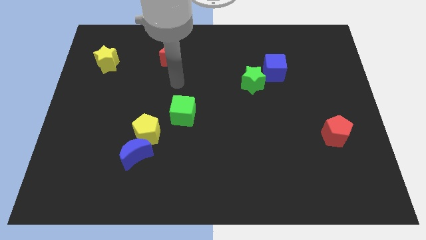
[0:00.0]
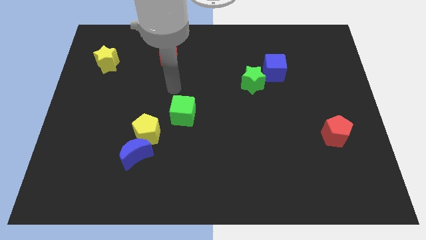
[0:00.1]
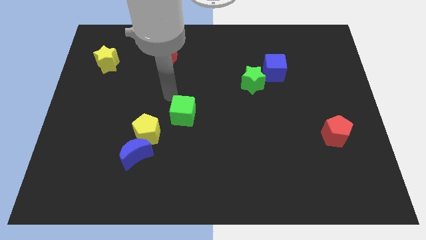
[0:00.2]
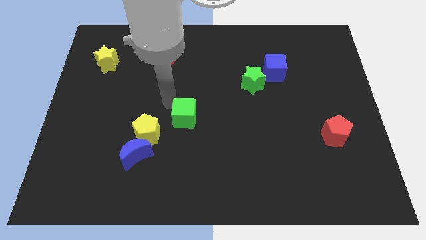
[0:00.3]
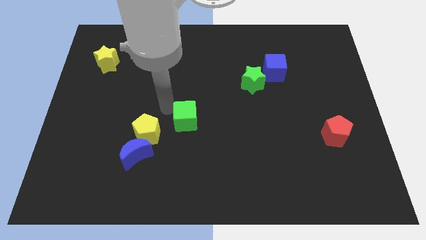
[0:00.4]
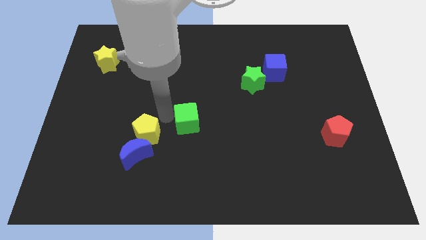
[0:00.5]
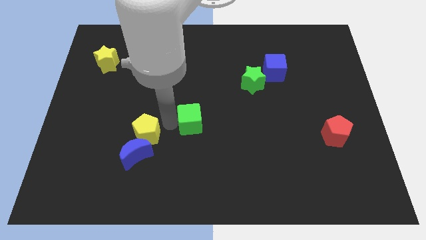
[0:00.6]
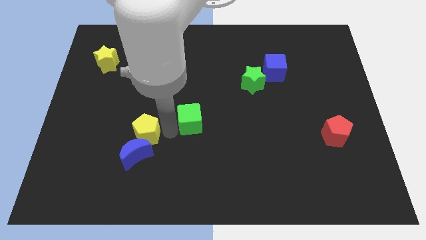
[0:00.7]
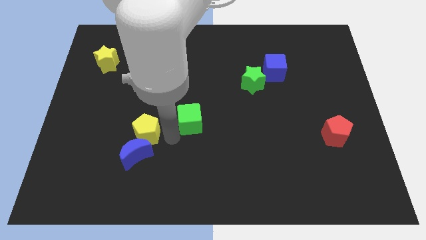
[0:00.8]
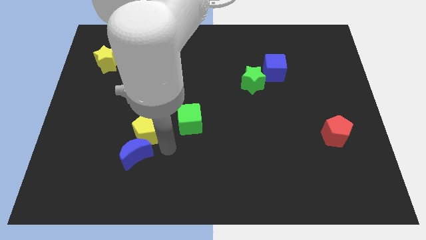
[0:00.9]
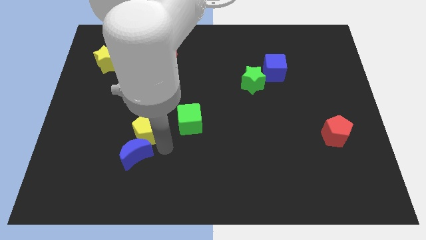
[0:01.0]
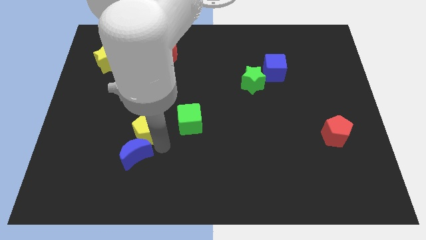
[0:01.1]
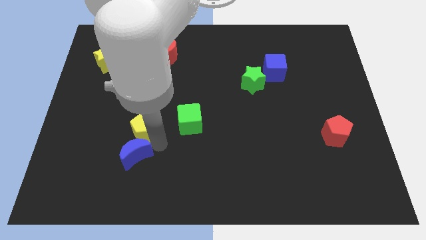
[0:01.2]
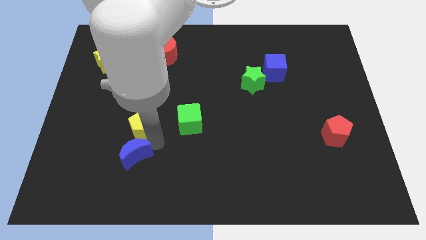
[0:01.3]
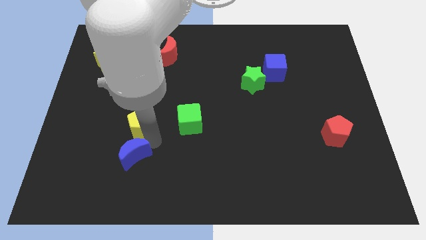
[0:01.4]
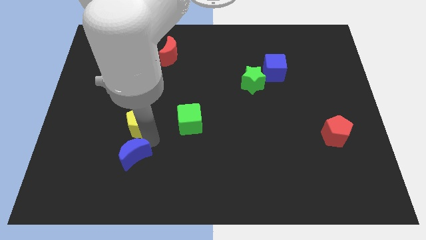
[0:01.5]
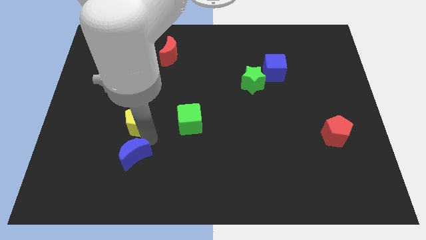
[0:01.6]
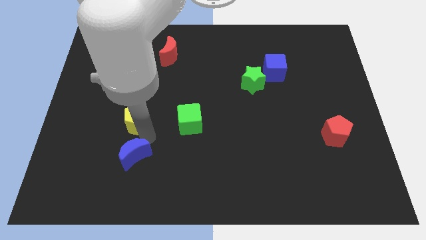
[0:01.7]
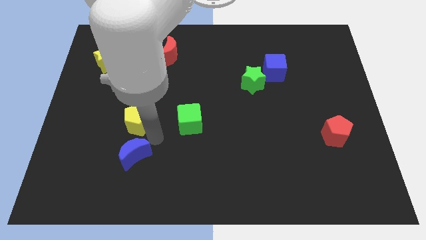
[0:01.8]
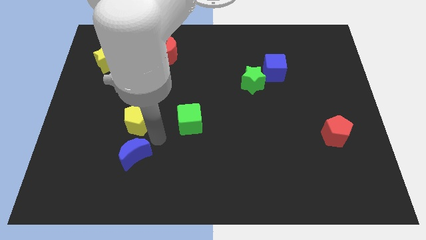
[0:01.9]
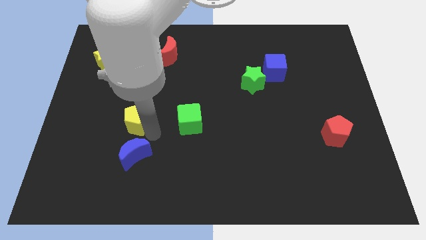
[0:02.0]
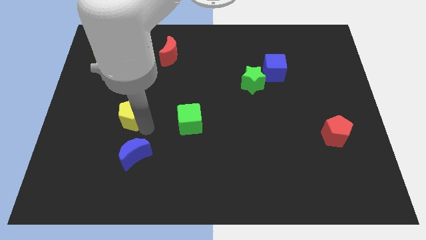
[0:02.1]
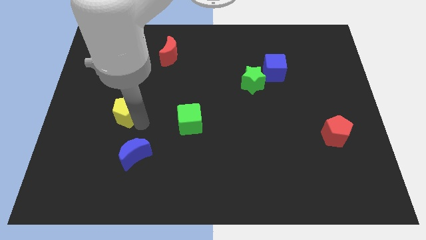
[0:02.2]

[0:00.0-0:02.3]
slightly move the yellow pentagon diagonally upwards and to the left

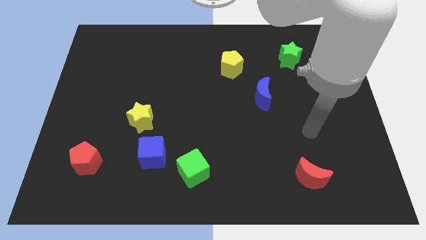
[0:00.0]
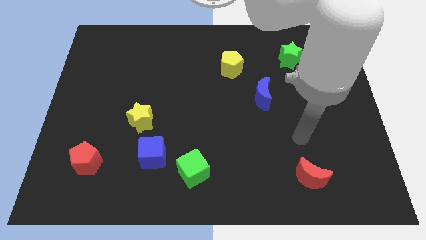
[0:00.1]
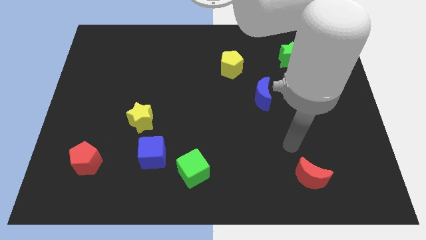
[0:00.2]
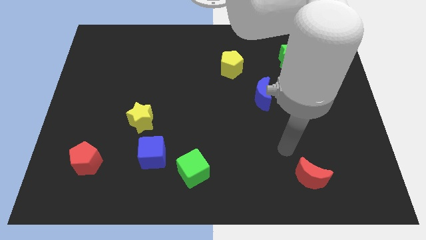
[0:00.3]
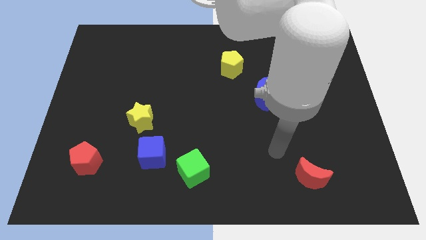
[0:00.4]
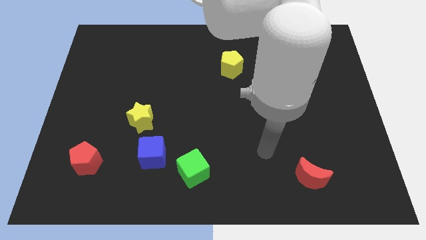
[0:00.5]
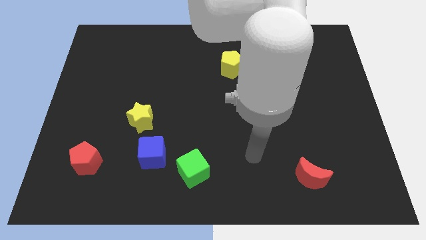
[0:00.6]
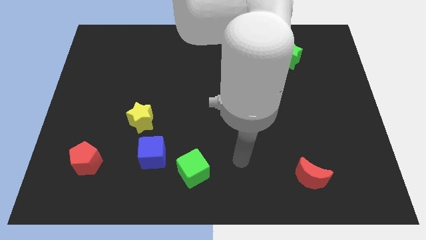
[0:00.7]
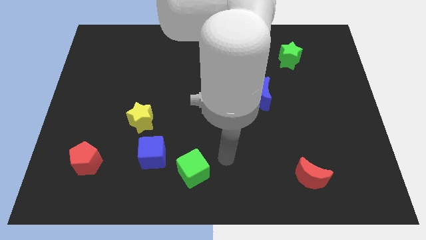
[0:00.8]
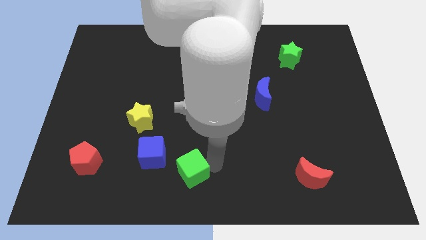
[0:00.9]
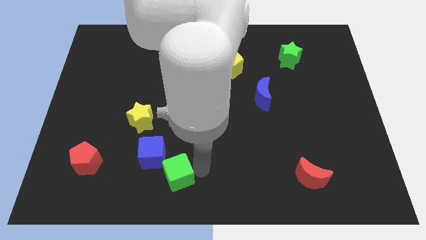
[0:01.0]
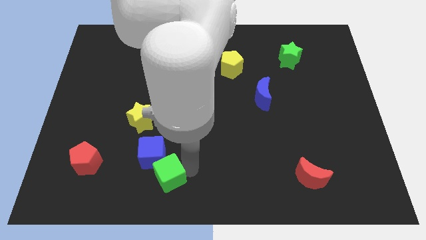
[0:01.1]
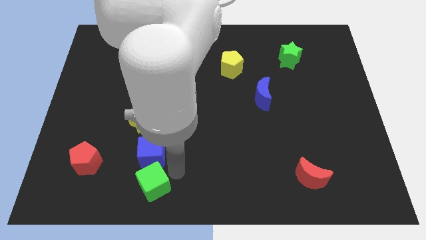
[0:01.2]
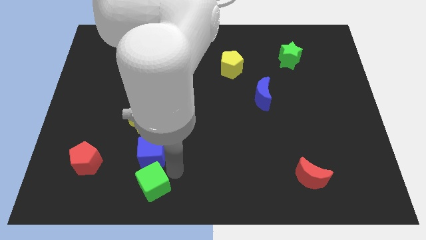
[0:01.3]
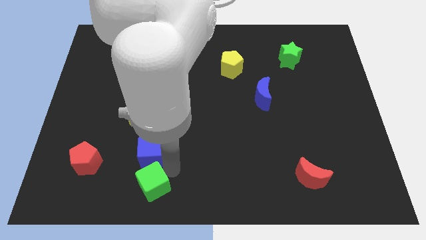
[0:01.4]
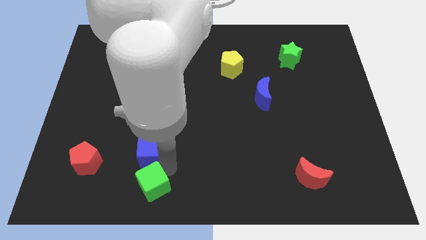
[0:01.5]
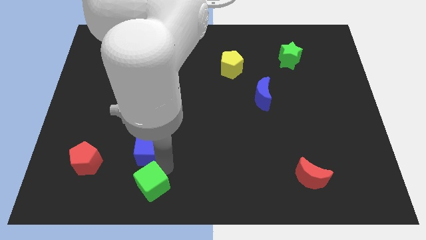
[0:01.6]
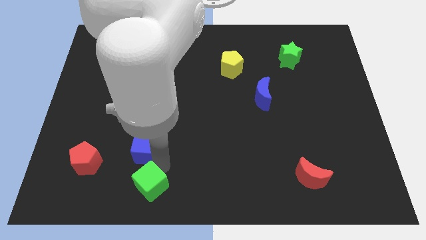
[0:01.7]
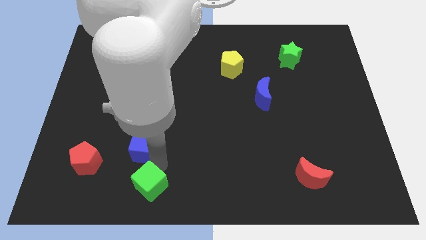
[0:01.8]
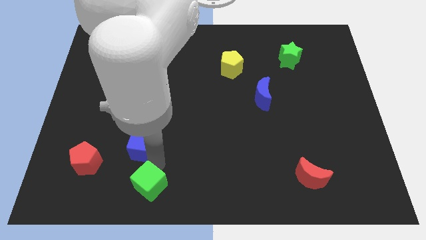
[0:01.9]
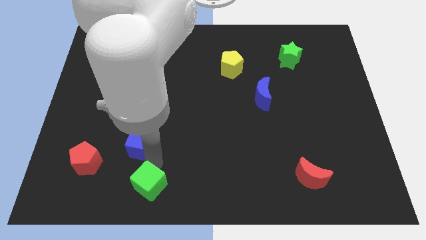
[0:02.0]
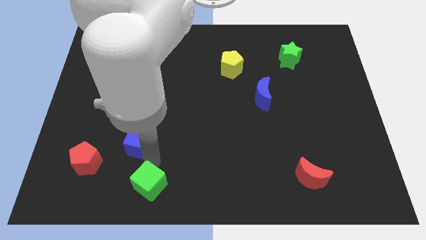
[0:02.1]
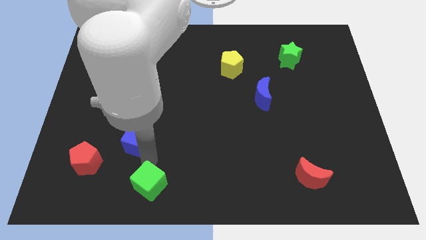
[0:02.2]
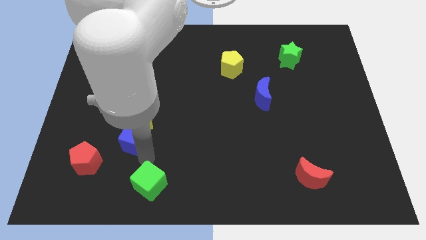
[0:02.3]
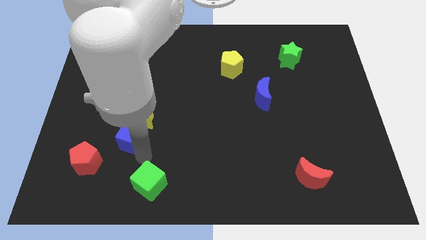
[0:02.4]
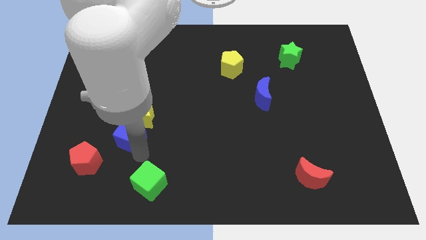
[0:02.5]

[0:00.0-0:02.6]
push the blue cube a bit diagonally upwards and to the left

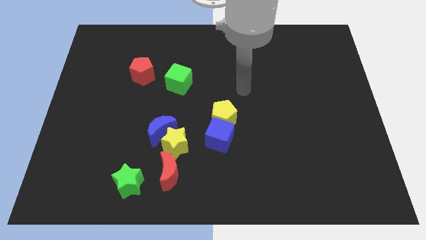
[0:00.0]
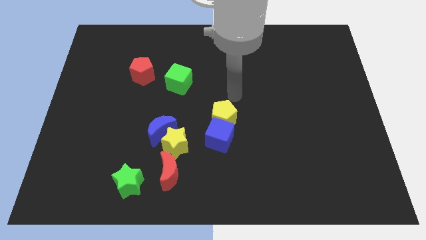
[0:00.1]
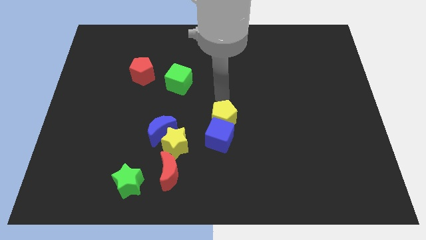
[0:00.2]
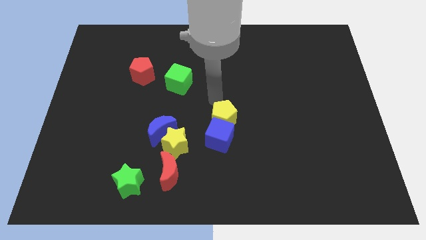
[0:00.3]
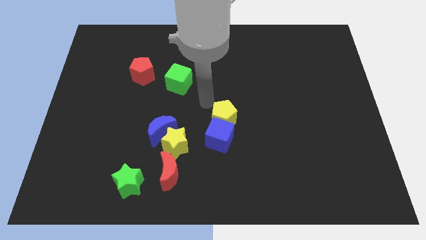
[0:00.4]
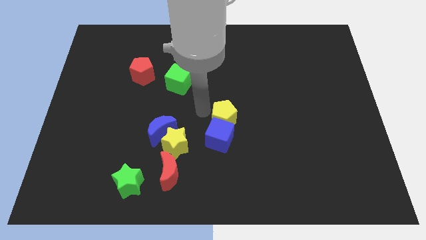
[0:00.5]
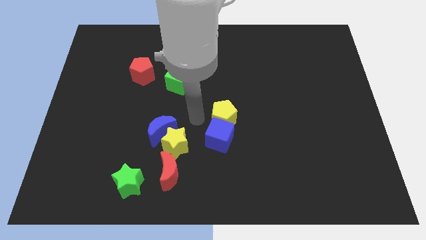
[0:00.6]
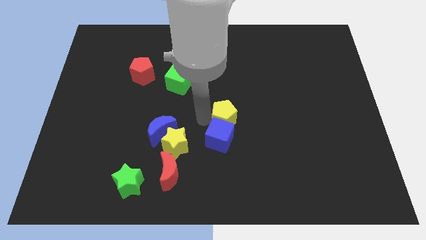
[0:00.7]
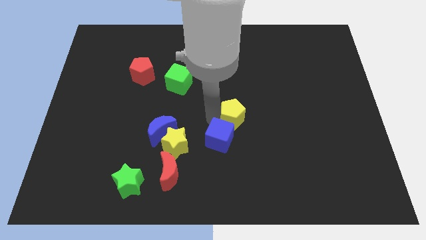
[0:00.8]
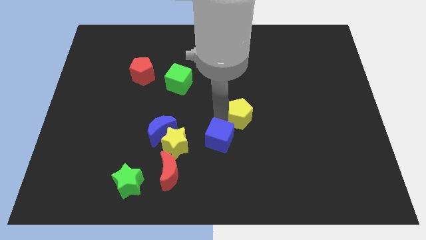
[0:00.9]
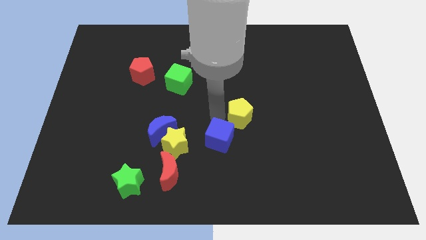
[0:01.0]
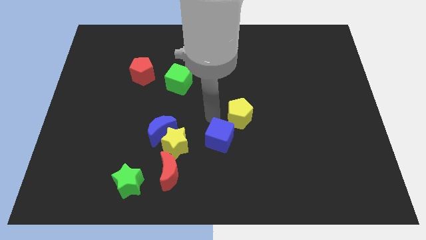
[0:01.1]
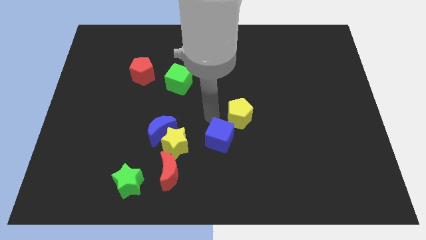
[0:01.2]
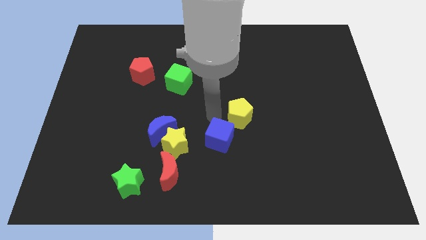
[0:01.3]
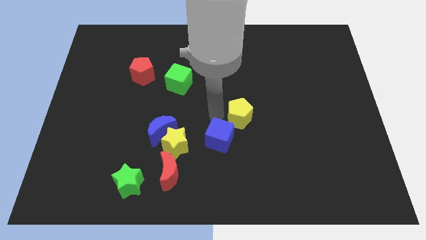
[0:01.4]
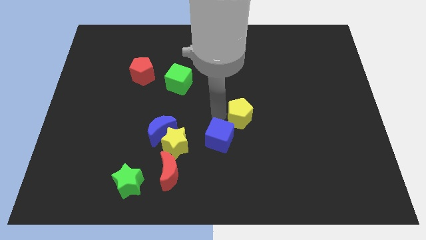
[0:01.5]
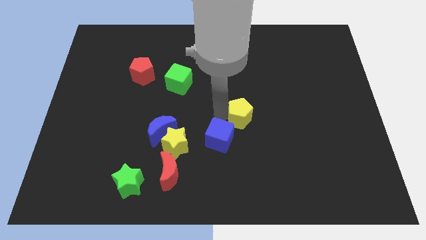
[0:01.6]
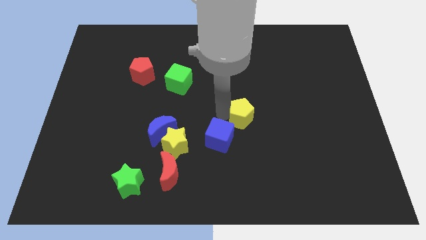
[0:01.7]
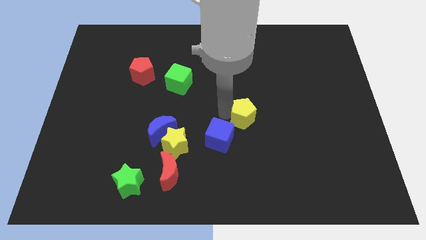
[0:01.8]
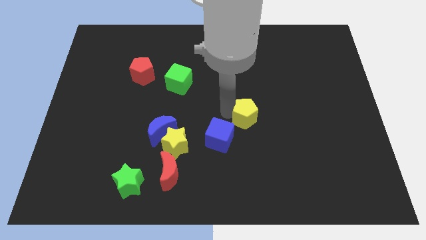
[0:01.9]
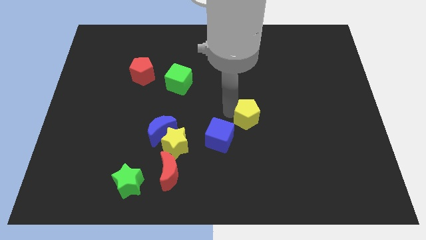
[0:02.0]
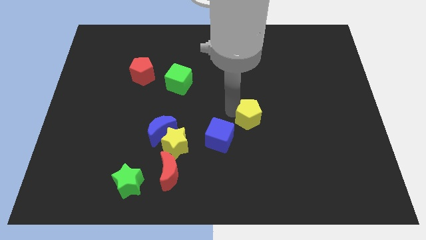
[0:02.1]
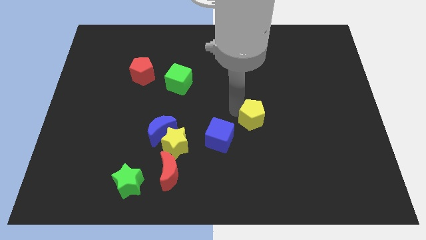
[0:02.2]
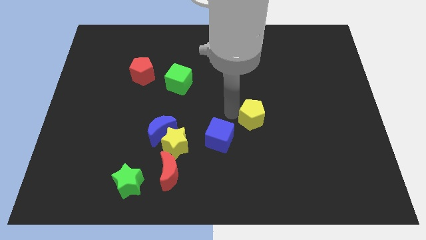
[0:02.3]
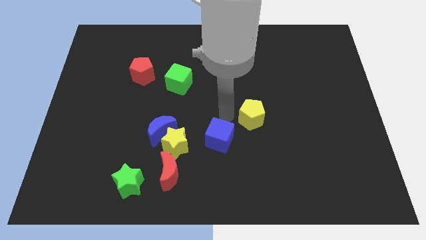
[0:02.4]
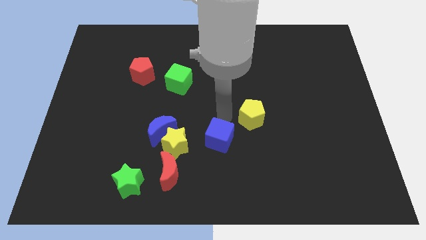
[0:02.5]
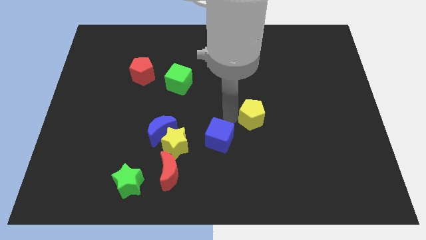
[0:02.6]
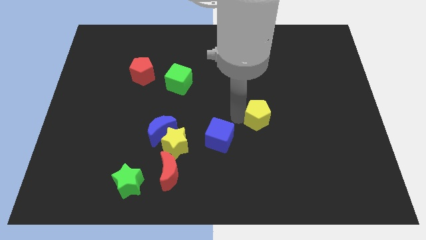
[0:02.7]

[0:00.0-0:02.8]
slide the yellow pentagon to the right slightly

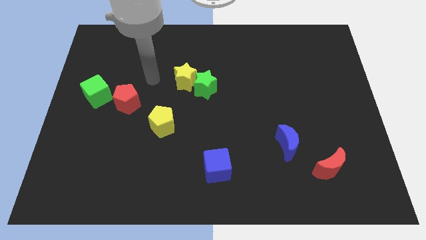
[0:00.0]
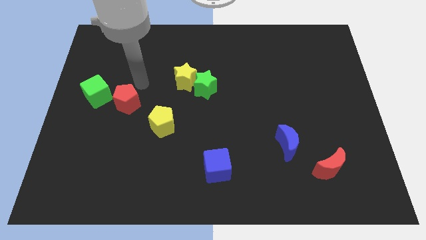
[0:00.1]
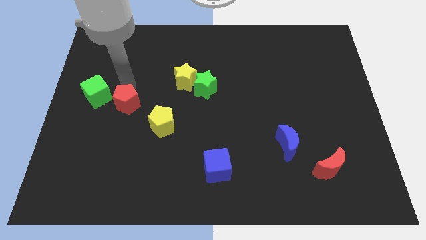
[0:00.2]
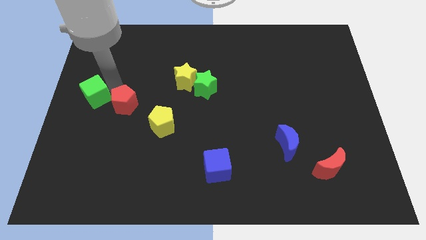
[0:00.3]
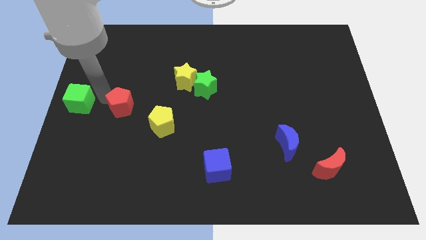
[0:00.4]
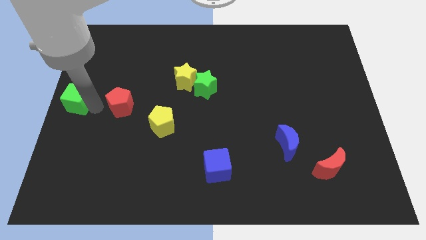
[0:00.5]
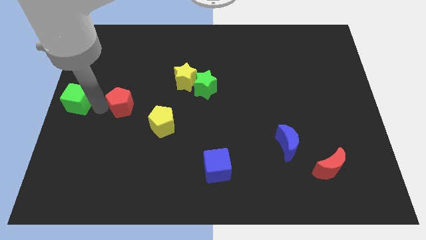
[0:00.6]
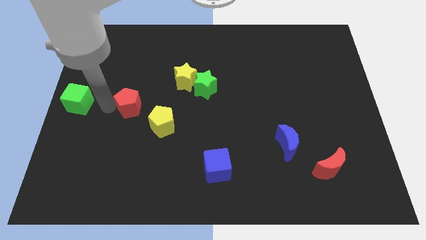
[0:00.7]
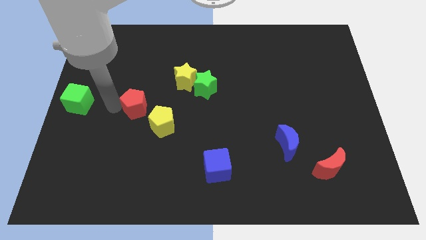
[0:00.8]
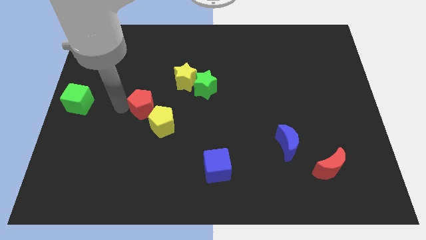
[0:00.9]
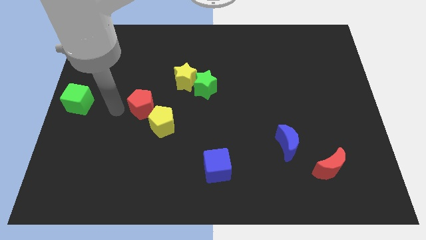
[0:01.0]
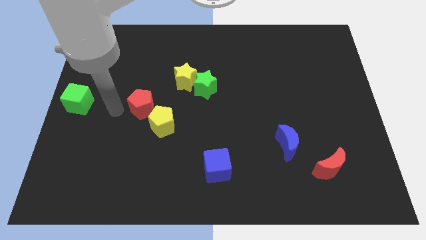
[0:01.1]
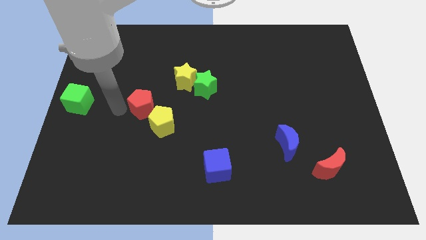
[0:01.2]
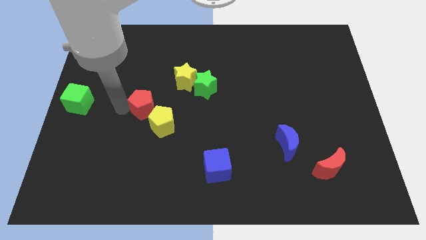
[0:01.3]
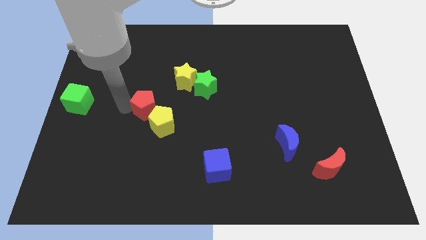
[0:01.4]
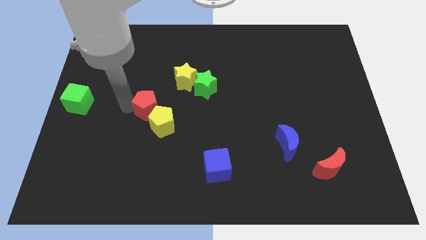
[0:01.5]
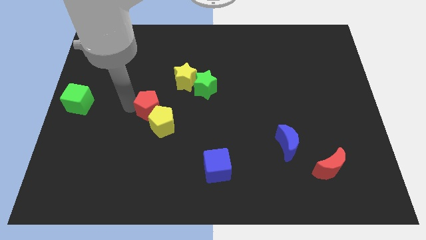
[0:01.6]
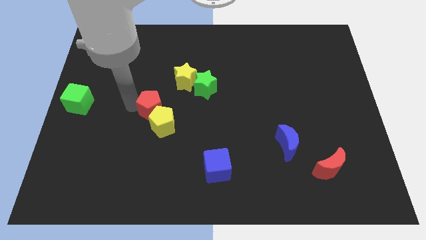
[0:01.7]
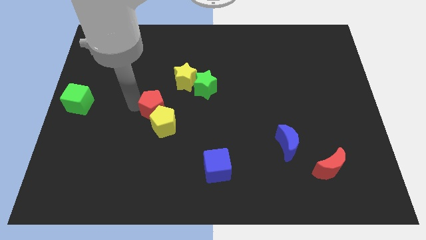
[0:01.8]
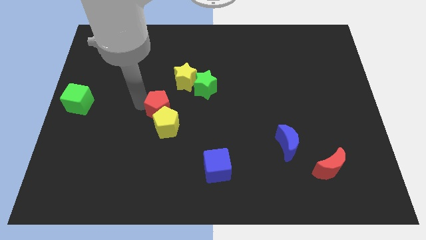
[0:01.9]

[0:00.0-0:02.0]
slightly slide the red pentagon to the right
